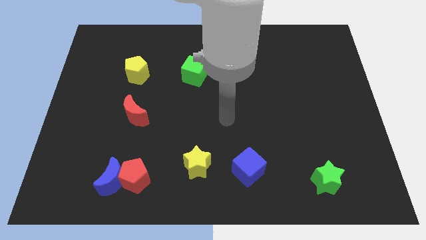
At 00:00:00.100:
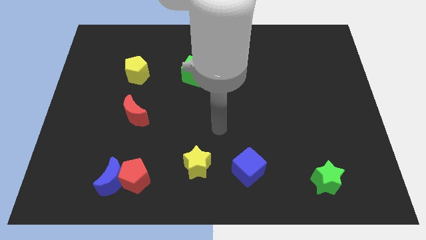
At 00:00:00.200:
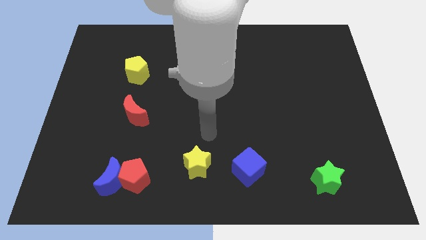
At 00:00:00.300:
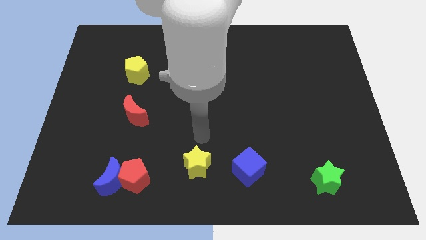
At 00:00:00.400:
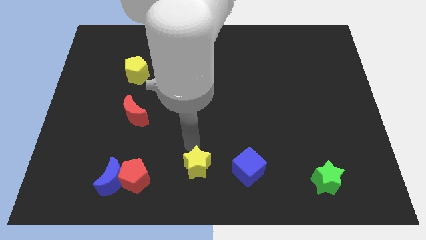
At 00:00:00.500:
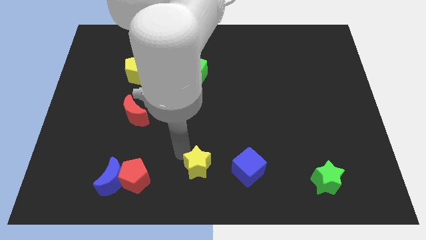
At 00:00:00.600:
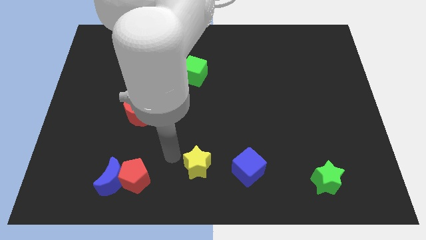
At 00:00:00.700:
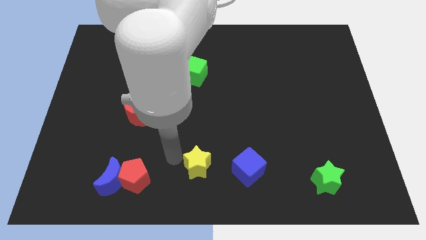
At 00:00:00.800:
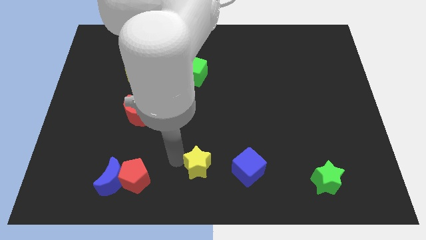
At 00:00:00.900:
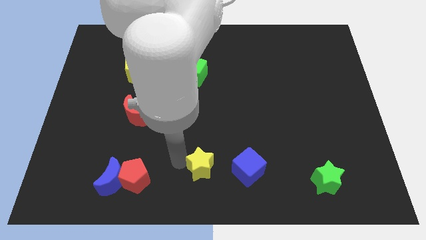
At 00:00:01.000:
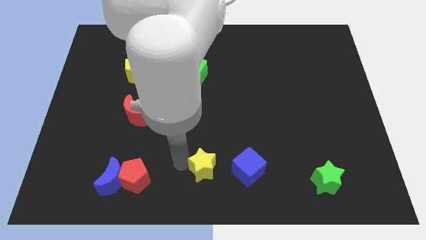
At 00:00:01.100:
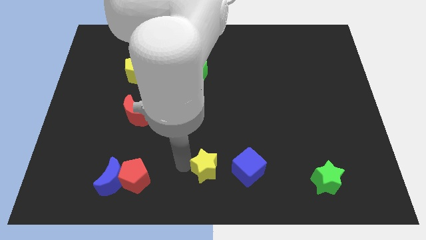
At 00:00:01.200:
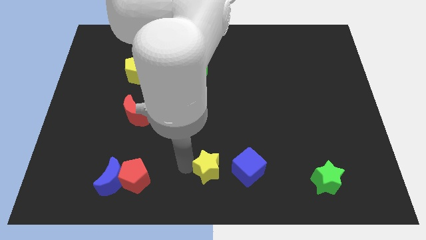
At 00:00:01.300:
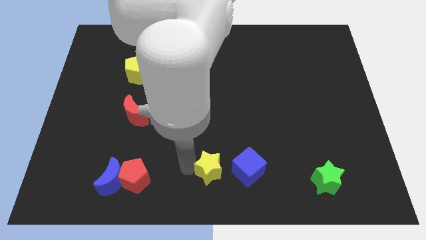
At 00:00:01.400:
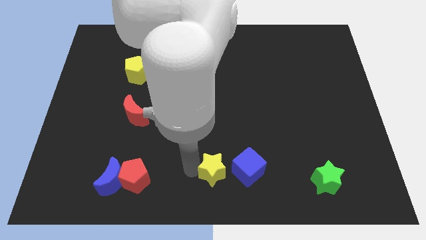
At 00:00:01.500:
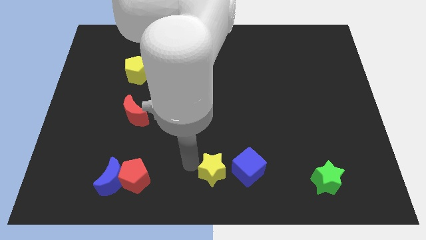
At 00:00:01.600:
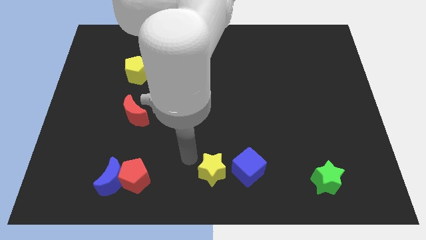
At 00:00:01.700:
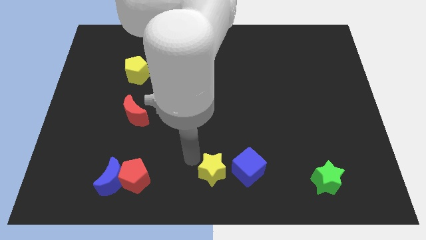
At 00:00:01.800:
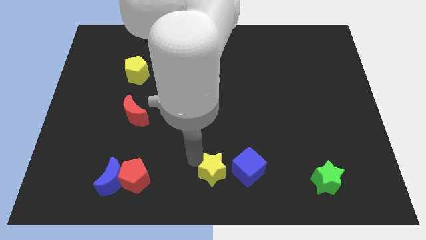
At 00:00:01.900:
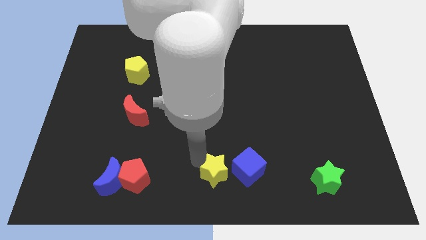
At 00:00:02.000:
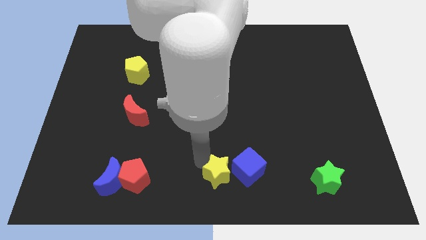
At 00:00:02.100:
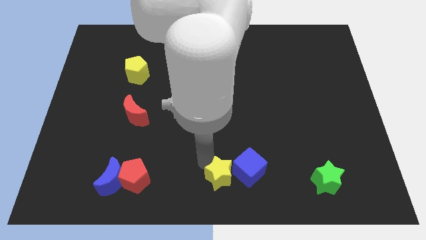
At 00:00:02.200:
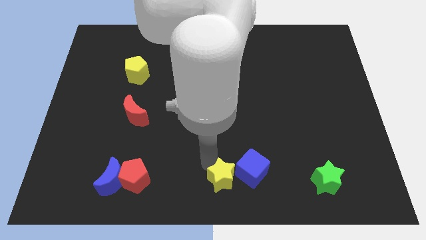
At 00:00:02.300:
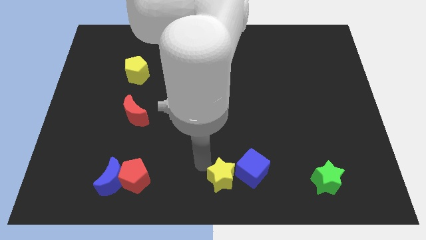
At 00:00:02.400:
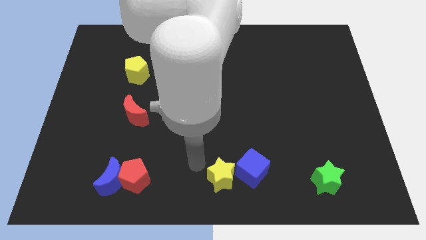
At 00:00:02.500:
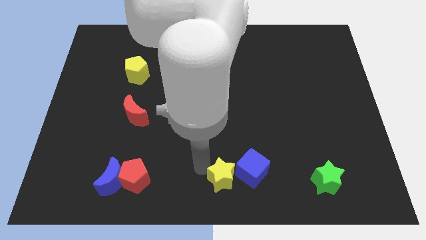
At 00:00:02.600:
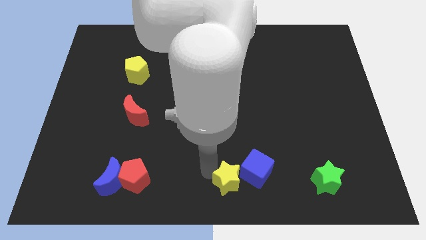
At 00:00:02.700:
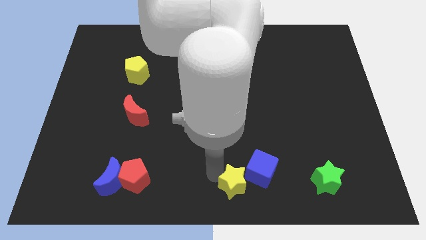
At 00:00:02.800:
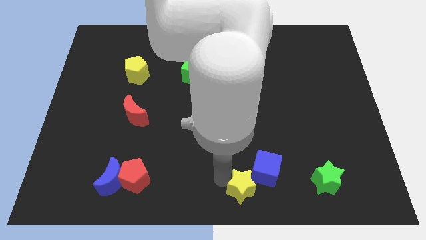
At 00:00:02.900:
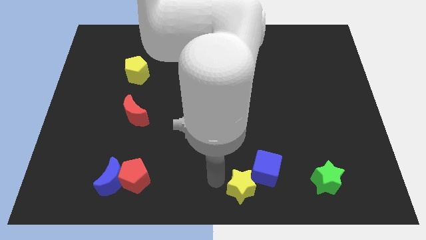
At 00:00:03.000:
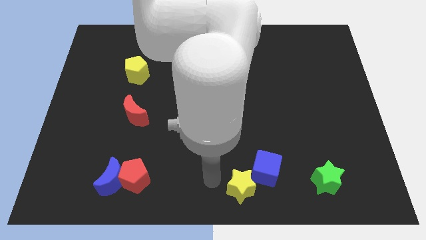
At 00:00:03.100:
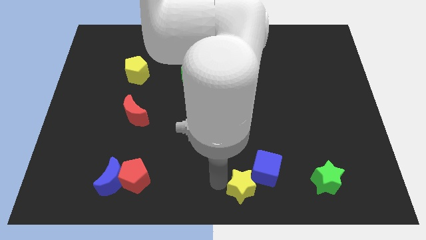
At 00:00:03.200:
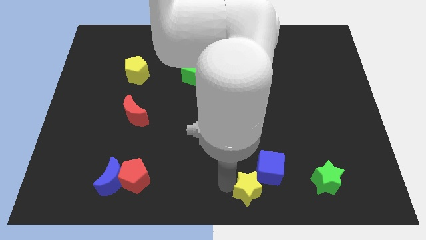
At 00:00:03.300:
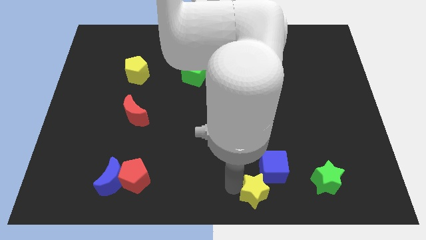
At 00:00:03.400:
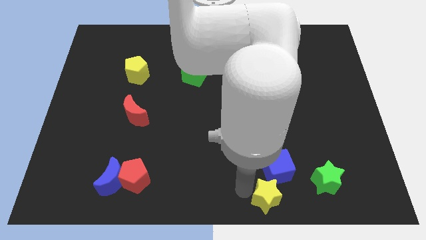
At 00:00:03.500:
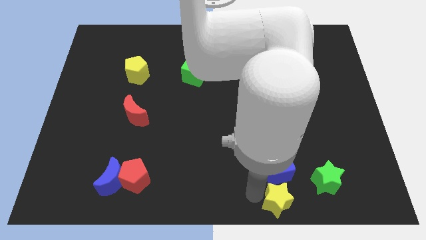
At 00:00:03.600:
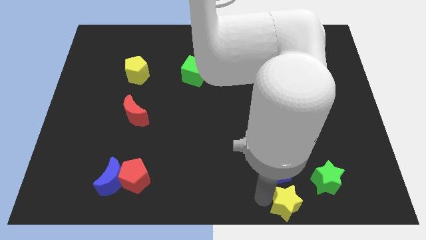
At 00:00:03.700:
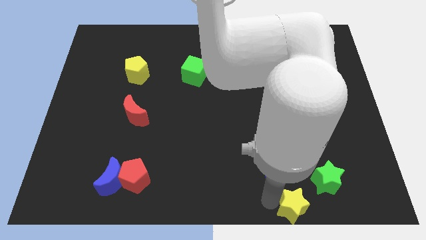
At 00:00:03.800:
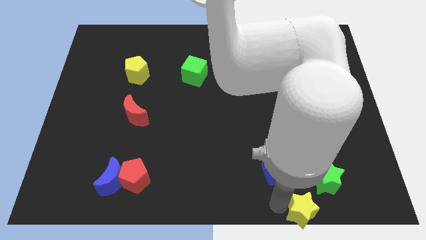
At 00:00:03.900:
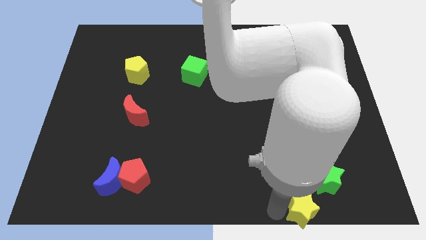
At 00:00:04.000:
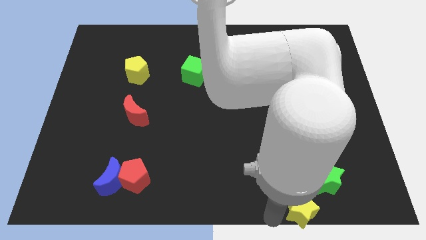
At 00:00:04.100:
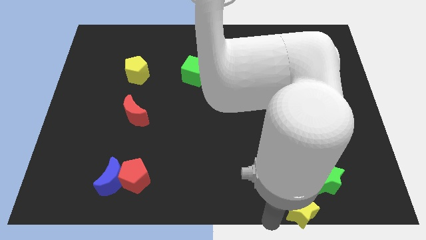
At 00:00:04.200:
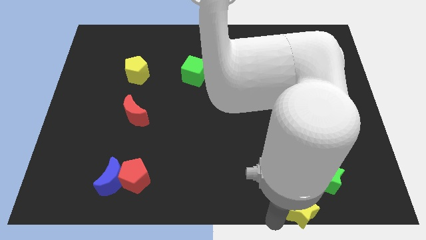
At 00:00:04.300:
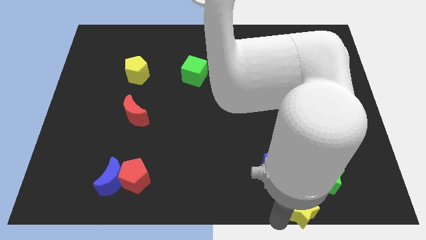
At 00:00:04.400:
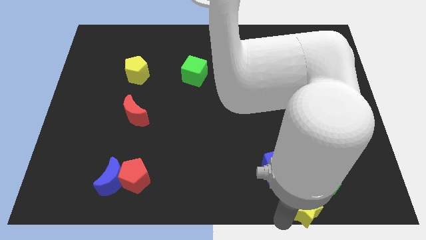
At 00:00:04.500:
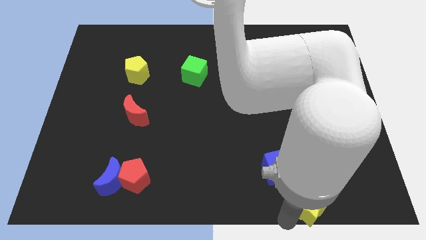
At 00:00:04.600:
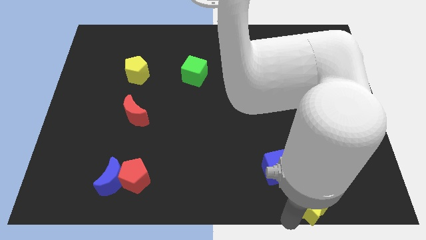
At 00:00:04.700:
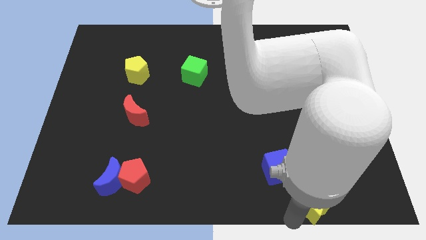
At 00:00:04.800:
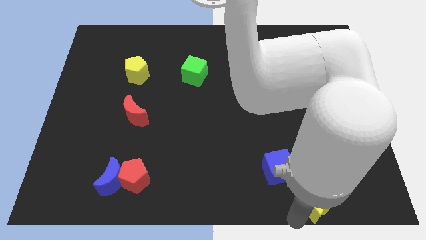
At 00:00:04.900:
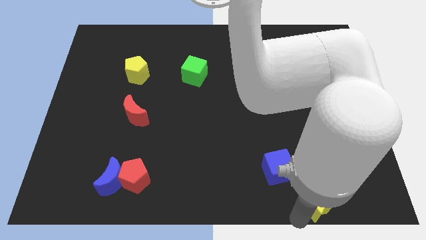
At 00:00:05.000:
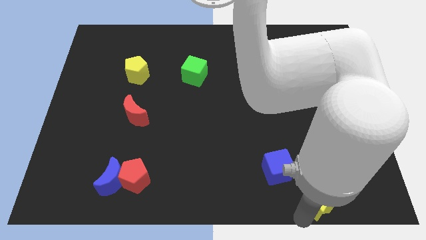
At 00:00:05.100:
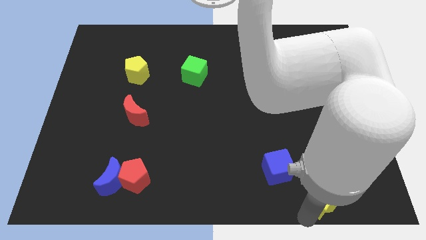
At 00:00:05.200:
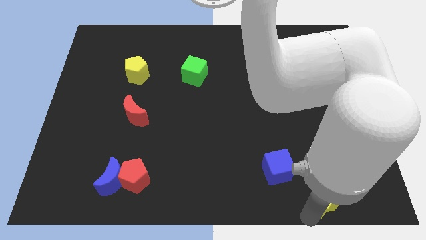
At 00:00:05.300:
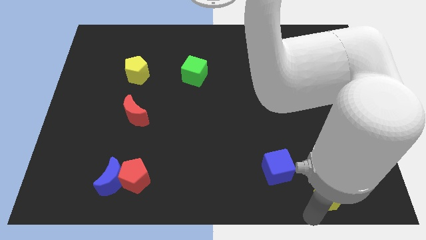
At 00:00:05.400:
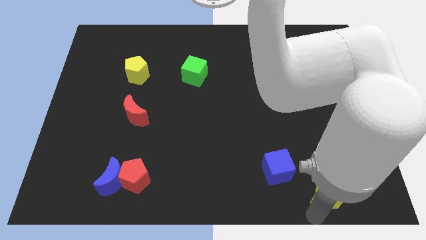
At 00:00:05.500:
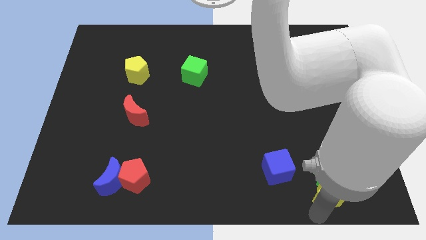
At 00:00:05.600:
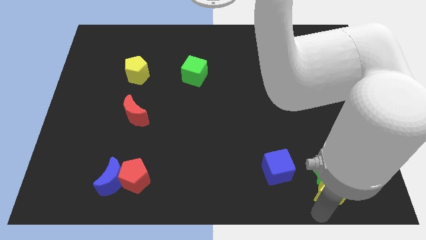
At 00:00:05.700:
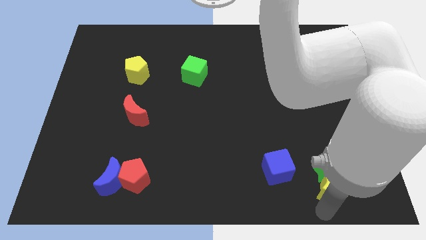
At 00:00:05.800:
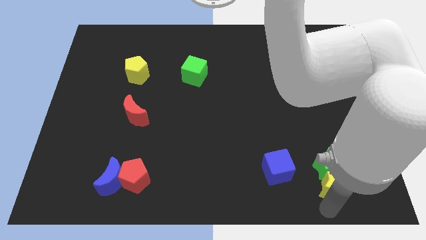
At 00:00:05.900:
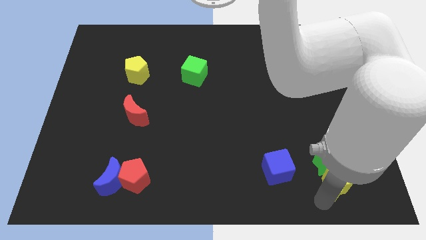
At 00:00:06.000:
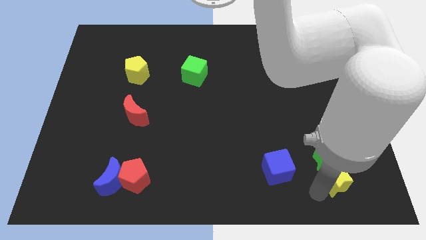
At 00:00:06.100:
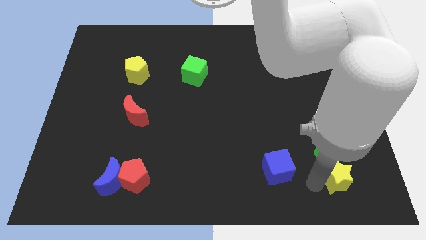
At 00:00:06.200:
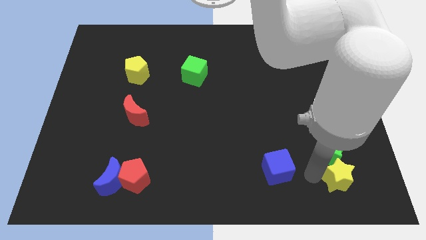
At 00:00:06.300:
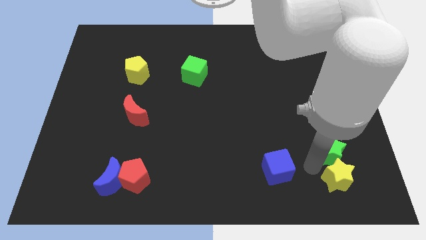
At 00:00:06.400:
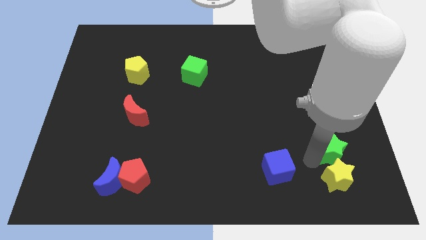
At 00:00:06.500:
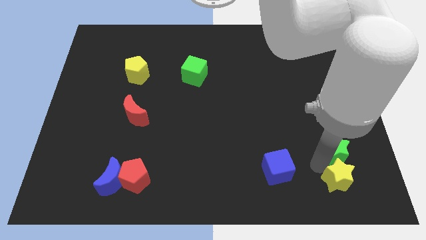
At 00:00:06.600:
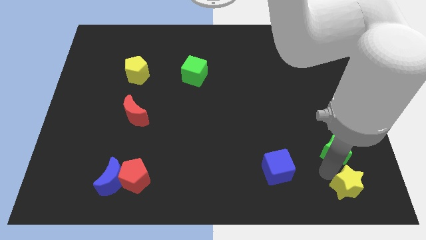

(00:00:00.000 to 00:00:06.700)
slide the yellow star to the bottom right of the board
